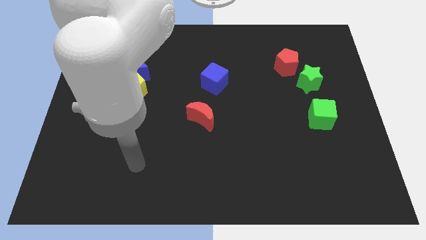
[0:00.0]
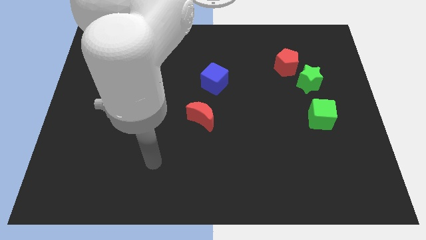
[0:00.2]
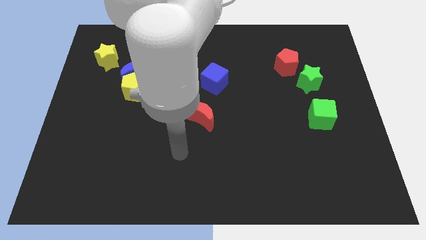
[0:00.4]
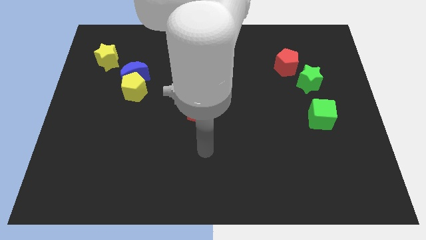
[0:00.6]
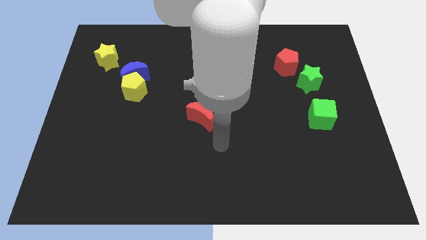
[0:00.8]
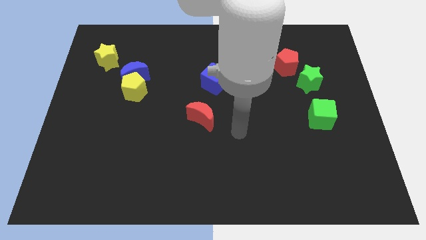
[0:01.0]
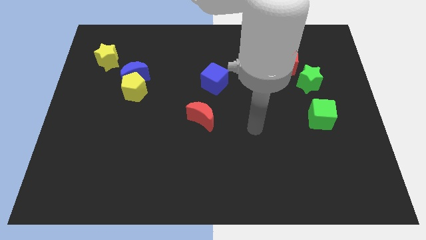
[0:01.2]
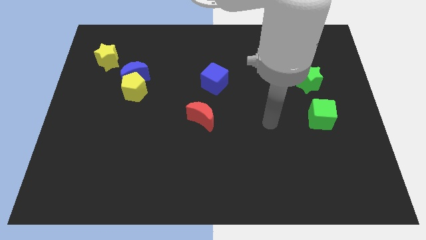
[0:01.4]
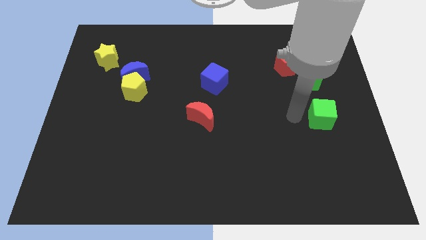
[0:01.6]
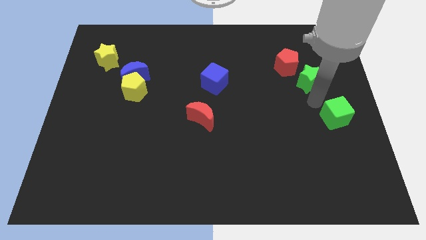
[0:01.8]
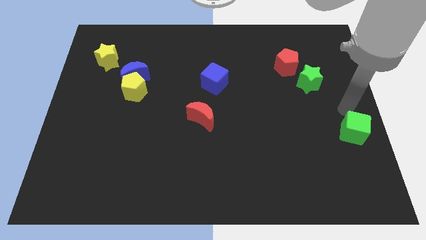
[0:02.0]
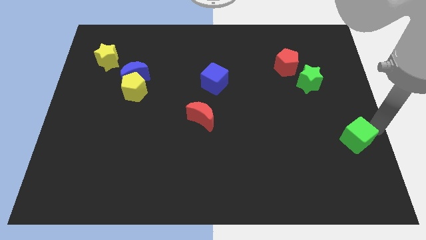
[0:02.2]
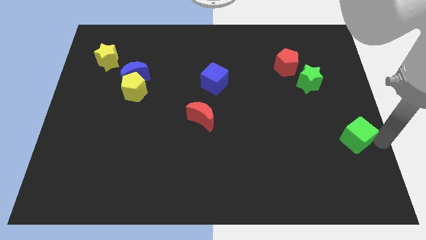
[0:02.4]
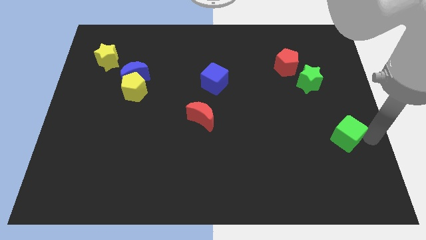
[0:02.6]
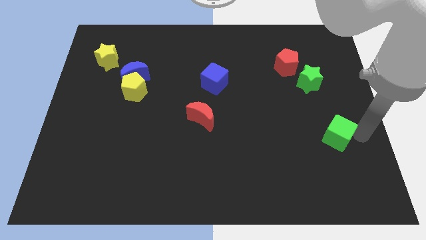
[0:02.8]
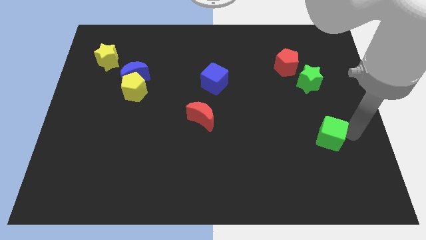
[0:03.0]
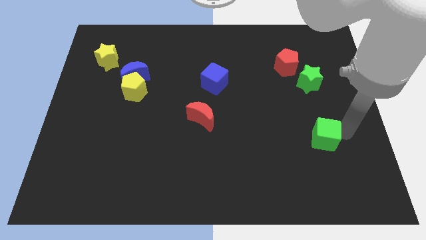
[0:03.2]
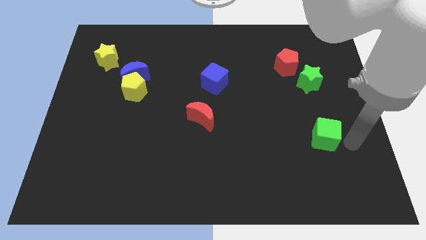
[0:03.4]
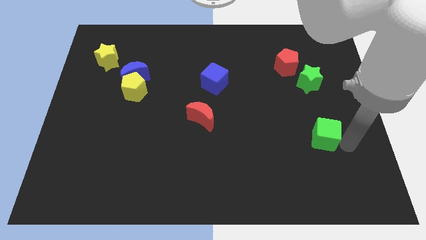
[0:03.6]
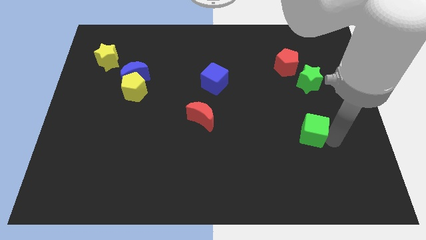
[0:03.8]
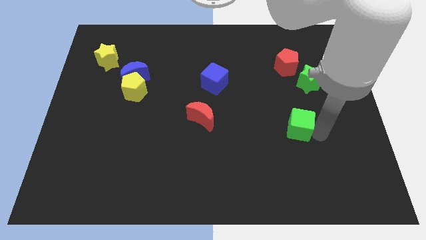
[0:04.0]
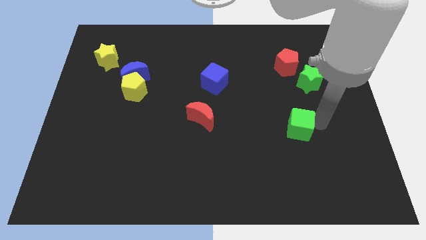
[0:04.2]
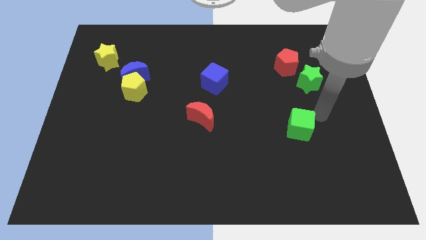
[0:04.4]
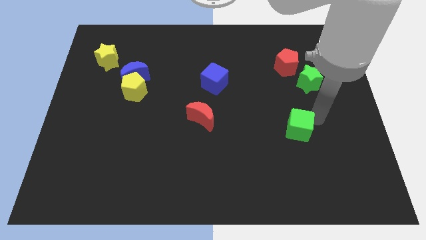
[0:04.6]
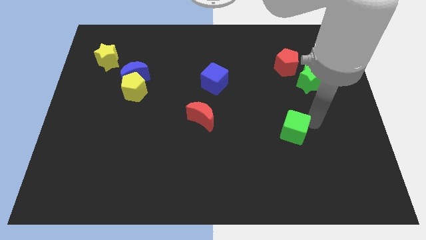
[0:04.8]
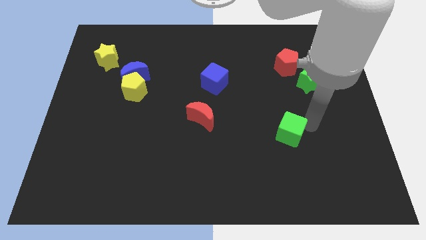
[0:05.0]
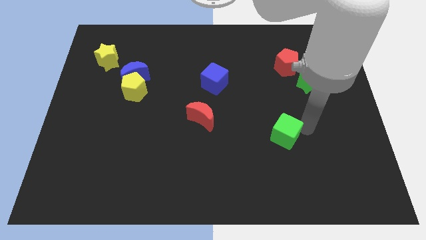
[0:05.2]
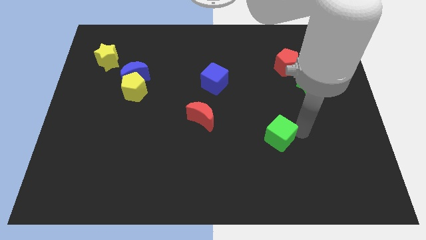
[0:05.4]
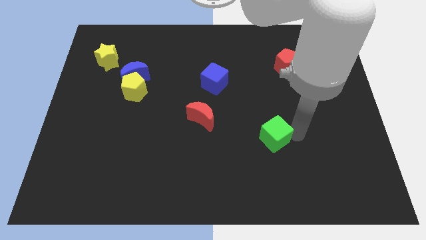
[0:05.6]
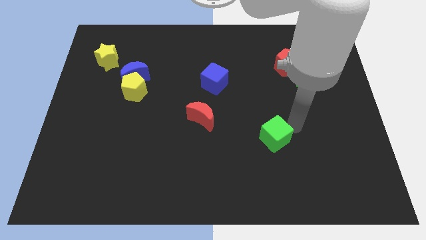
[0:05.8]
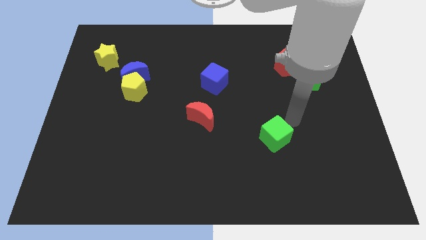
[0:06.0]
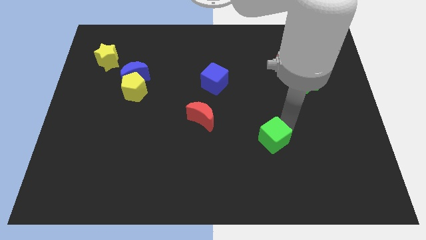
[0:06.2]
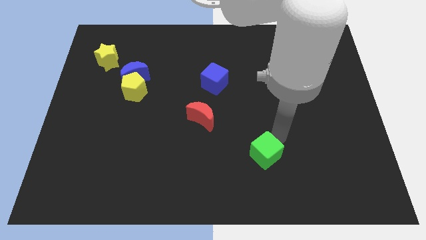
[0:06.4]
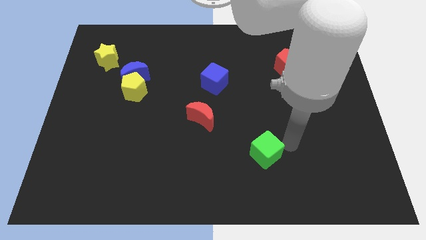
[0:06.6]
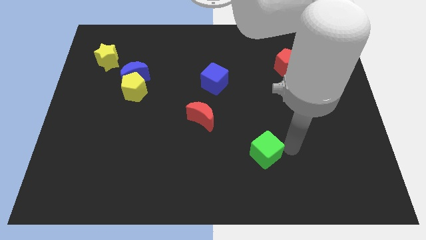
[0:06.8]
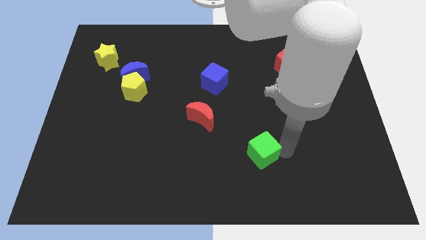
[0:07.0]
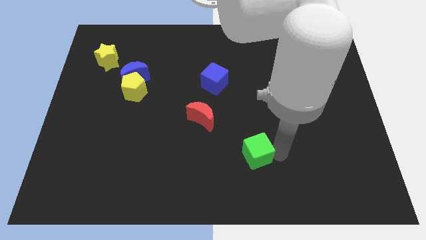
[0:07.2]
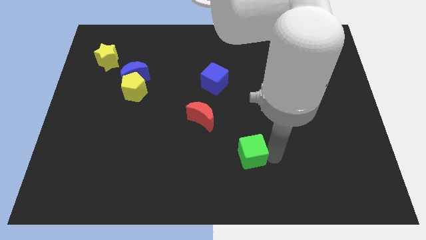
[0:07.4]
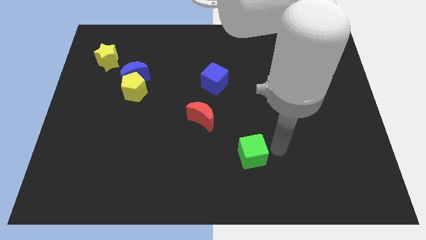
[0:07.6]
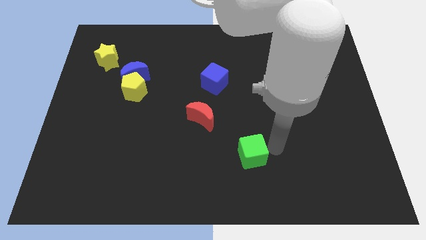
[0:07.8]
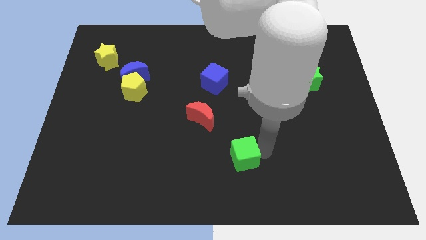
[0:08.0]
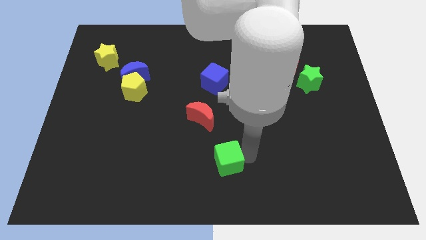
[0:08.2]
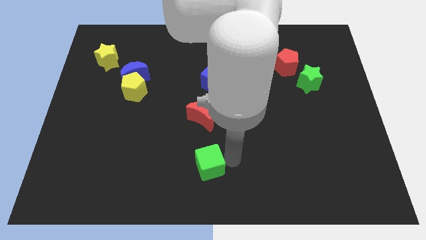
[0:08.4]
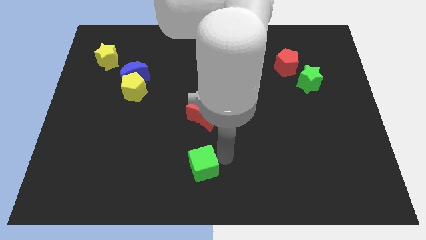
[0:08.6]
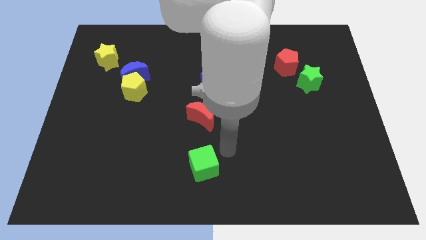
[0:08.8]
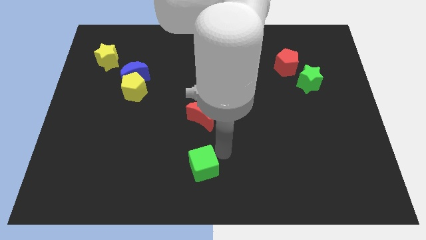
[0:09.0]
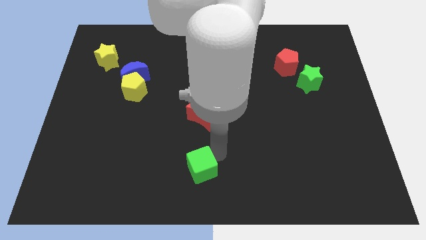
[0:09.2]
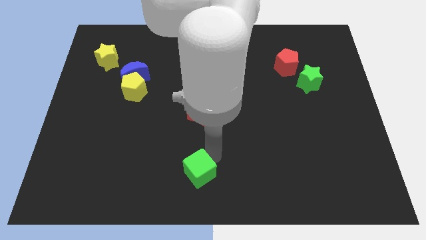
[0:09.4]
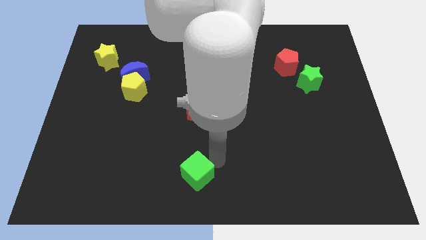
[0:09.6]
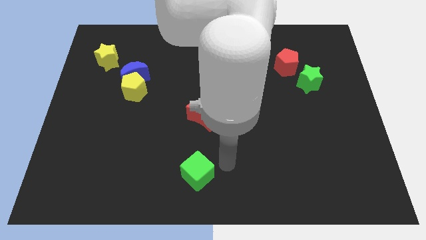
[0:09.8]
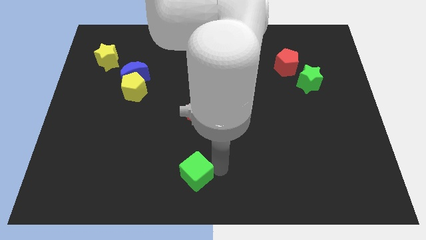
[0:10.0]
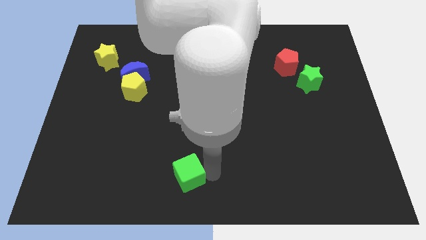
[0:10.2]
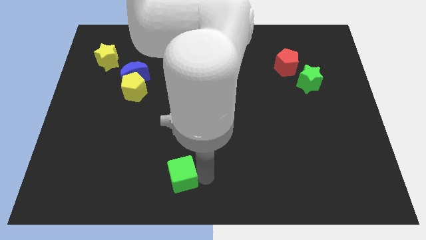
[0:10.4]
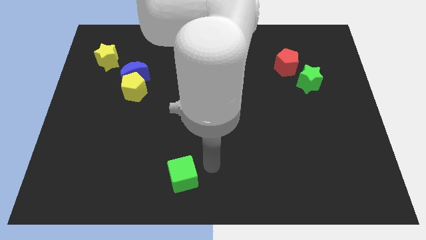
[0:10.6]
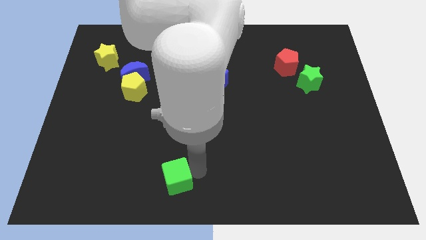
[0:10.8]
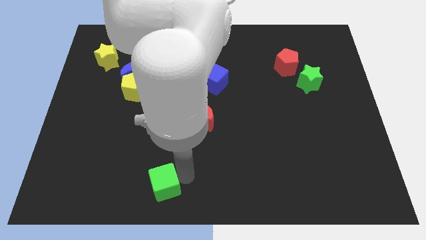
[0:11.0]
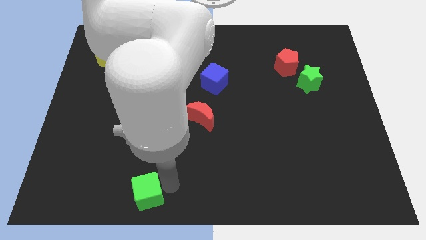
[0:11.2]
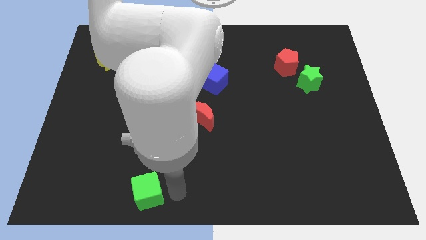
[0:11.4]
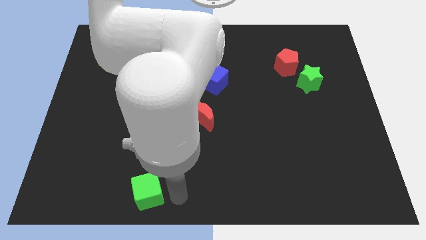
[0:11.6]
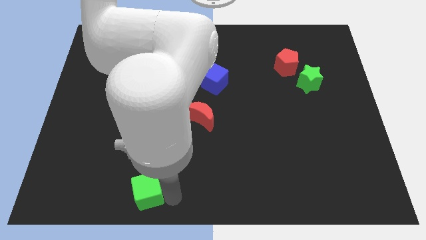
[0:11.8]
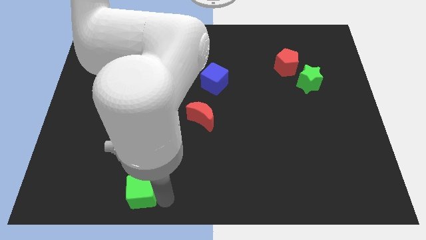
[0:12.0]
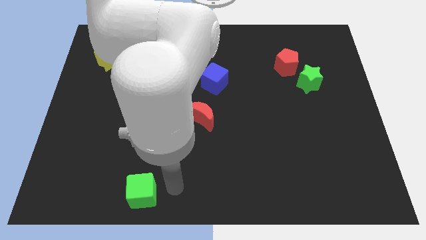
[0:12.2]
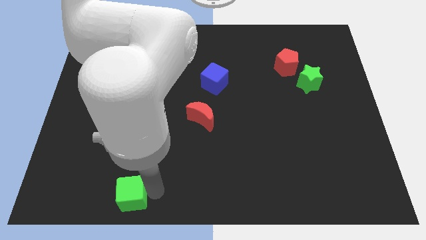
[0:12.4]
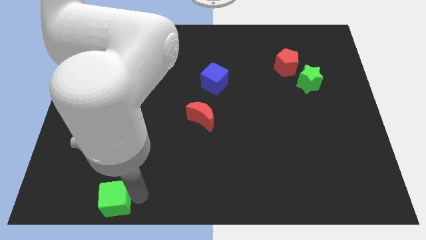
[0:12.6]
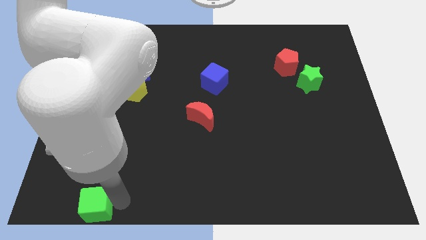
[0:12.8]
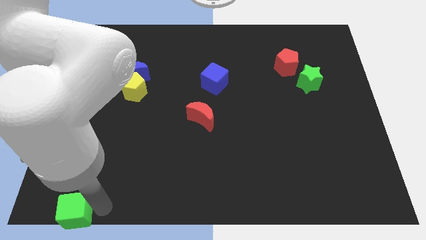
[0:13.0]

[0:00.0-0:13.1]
slide the green cube to the bottom left corner

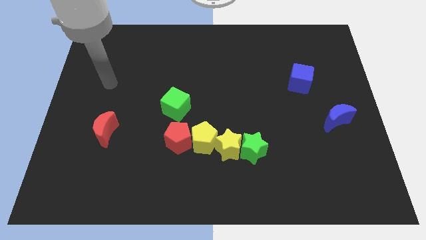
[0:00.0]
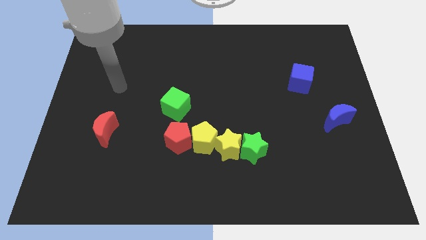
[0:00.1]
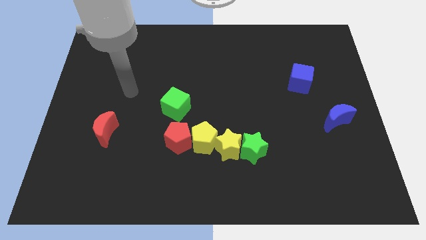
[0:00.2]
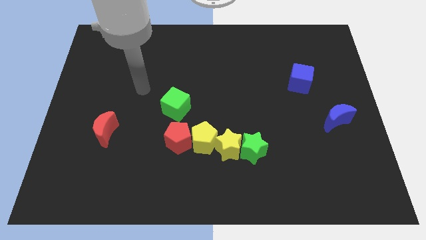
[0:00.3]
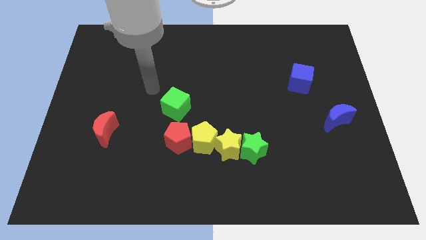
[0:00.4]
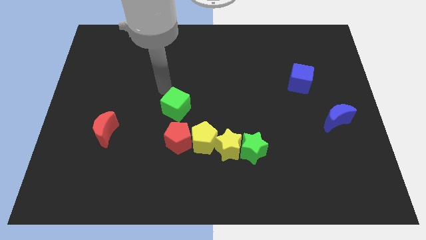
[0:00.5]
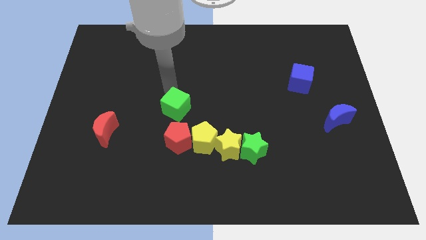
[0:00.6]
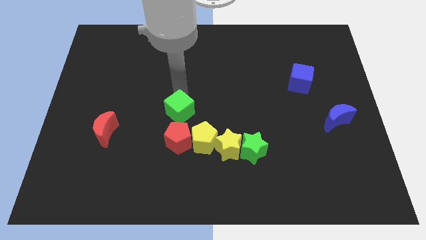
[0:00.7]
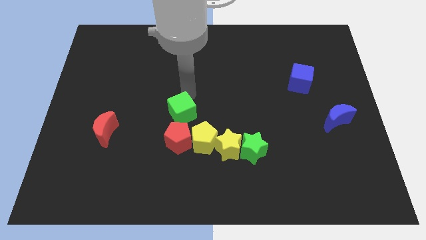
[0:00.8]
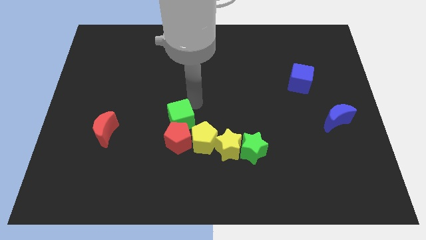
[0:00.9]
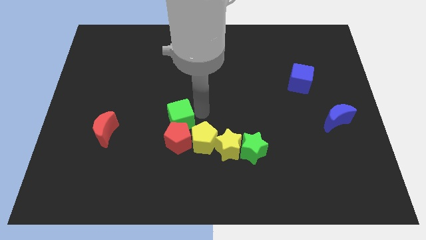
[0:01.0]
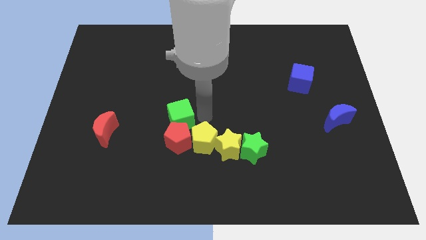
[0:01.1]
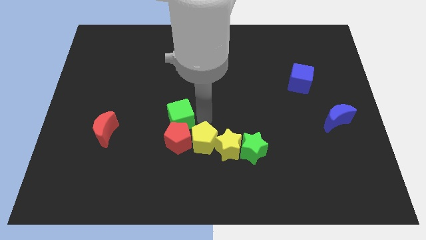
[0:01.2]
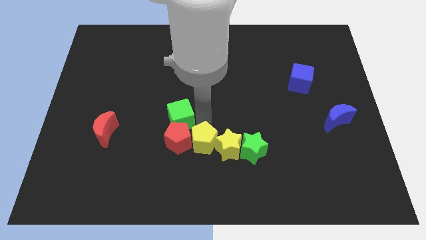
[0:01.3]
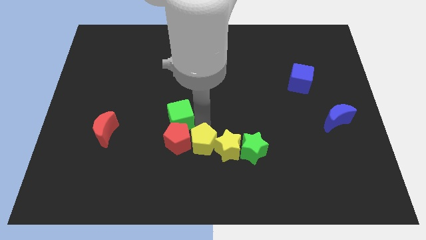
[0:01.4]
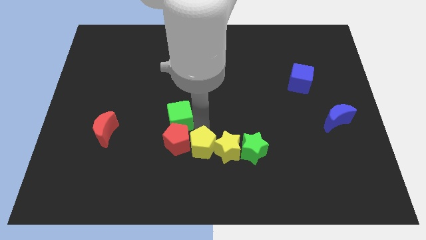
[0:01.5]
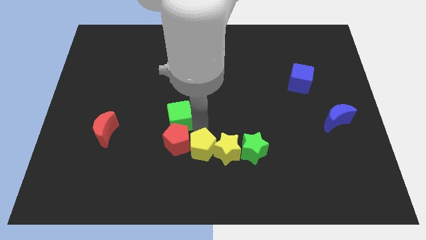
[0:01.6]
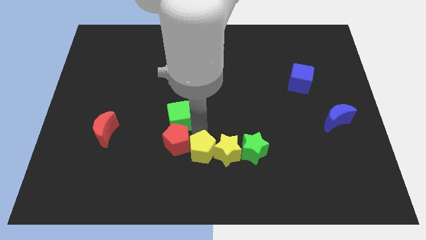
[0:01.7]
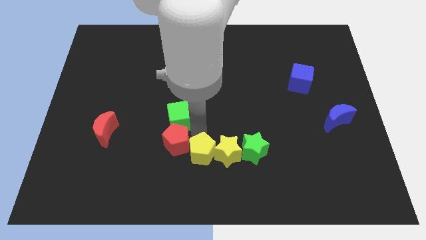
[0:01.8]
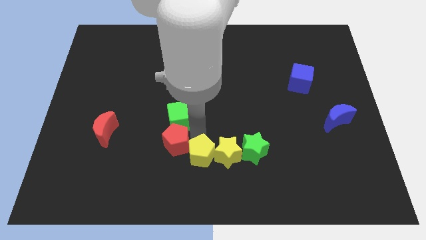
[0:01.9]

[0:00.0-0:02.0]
slide the yellow pentagon to the bottom side
